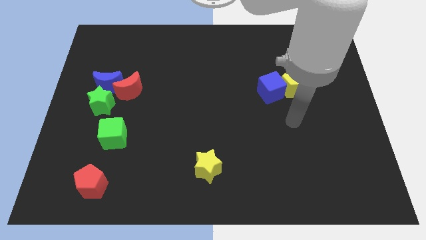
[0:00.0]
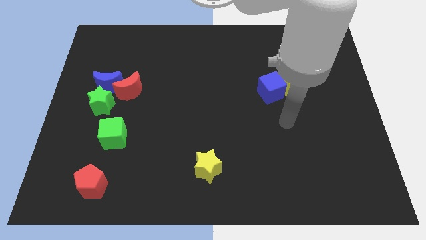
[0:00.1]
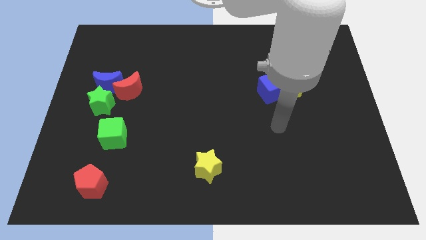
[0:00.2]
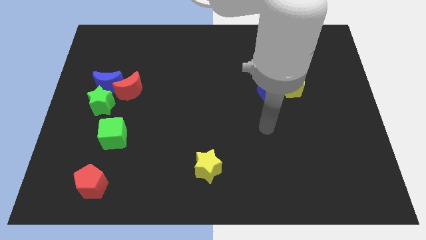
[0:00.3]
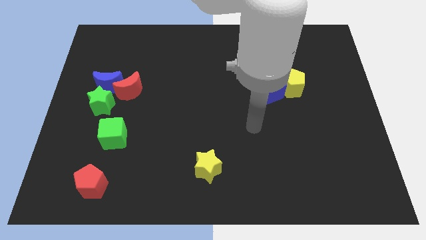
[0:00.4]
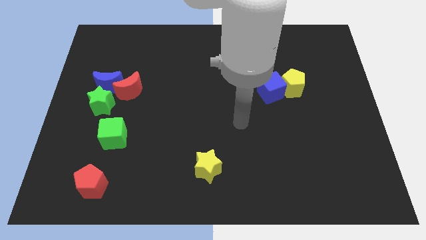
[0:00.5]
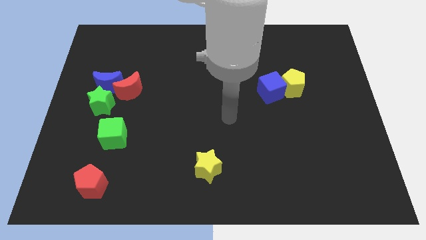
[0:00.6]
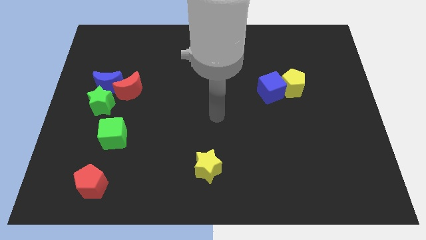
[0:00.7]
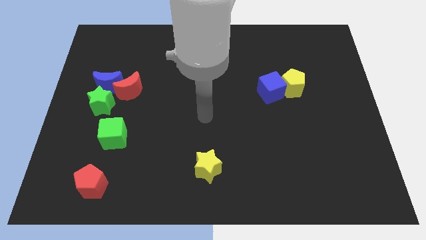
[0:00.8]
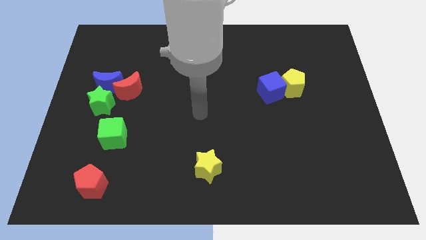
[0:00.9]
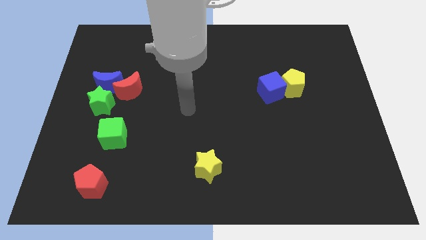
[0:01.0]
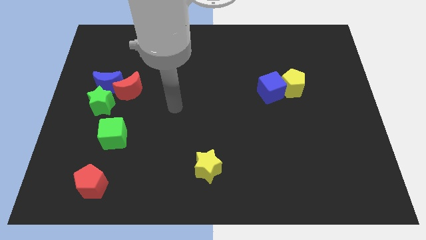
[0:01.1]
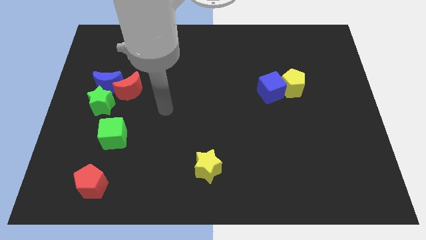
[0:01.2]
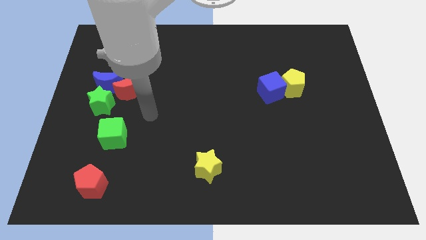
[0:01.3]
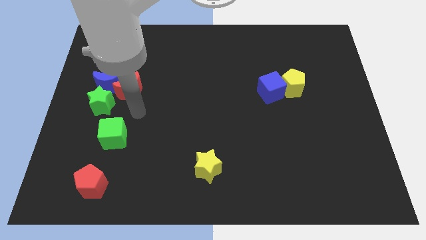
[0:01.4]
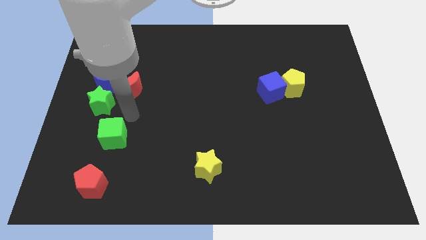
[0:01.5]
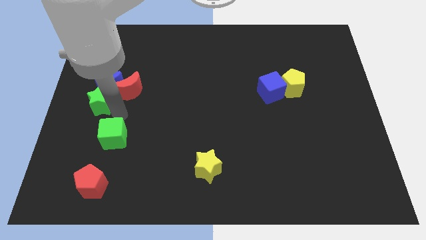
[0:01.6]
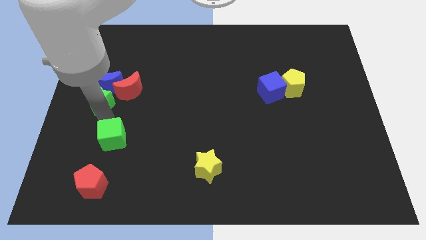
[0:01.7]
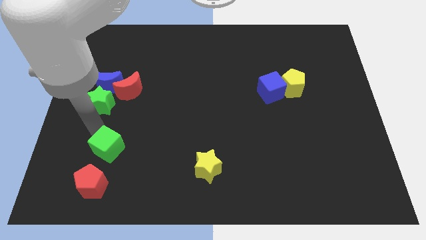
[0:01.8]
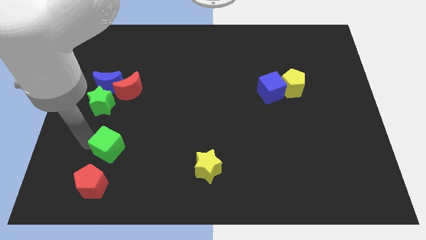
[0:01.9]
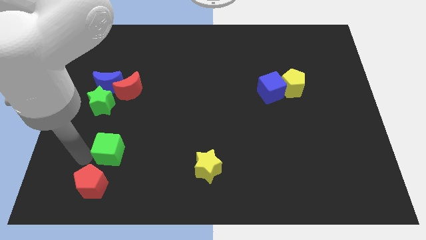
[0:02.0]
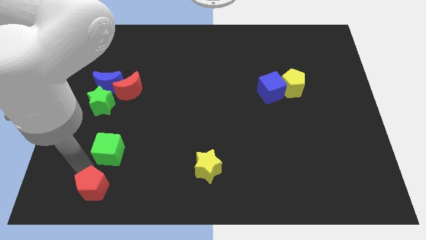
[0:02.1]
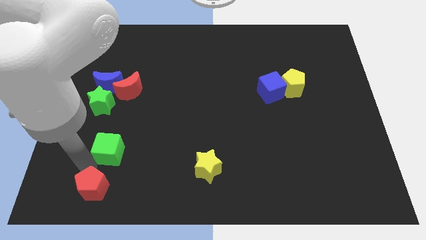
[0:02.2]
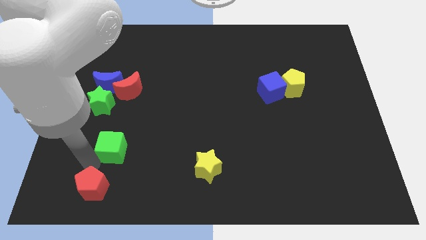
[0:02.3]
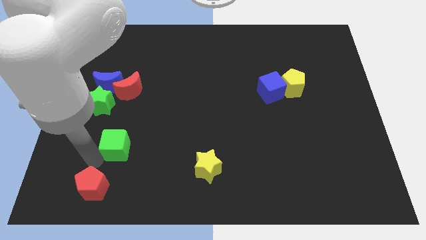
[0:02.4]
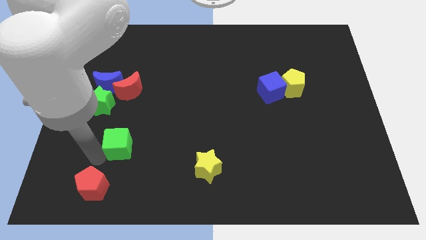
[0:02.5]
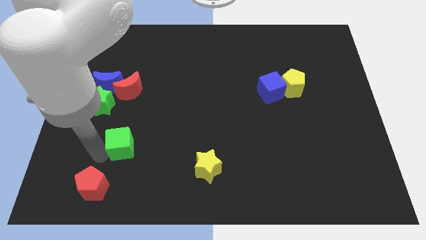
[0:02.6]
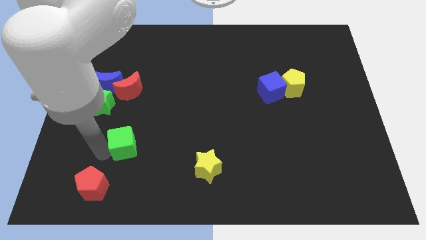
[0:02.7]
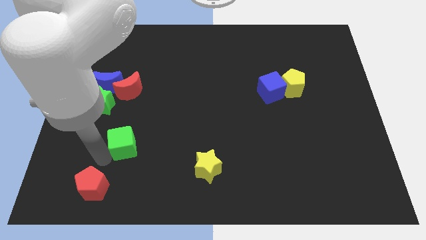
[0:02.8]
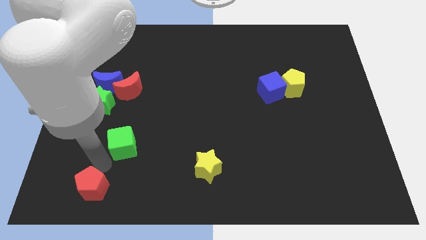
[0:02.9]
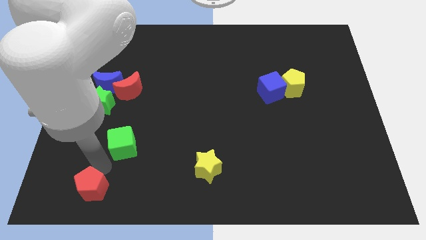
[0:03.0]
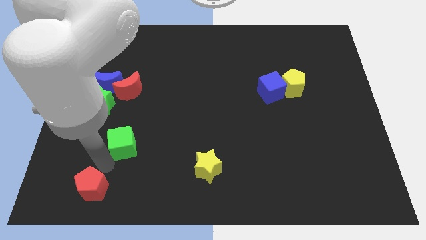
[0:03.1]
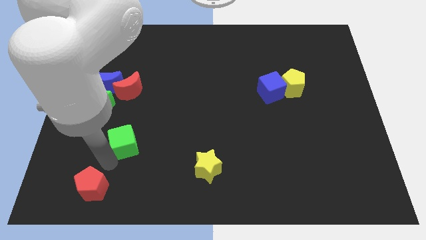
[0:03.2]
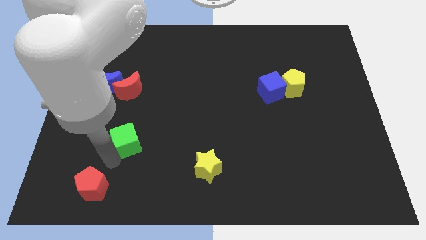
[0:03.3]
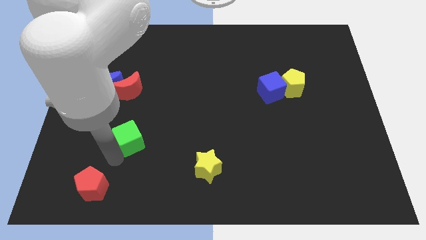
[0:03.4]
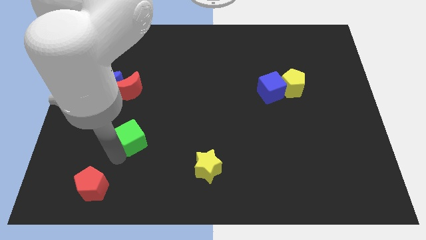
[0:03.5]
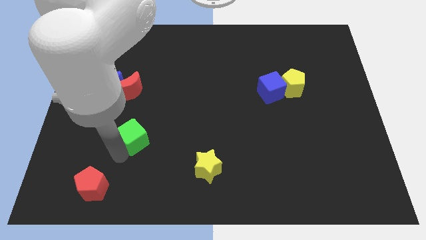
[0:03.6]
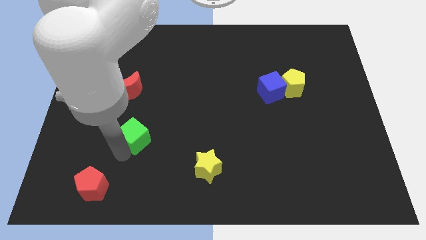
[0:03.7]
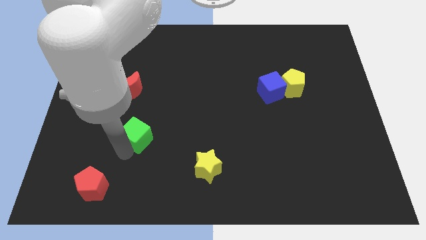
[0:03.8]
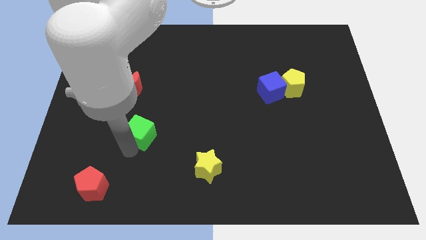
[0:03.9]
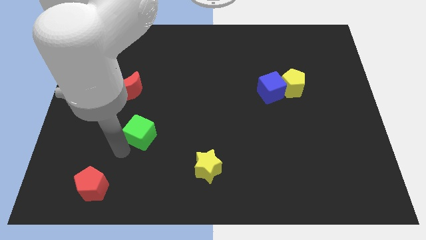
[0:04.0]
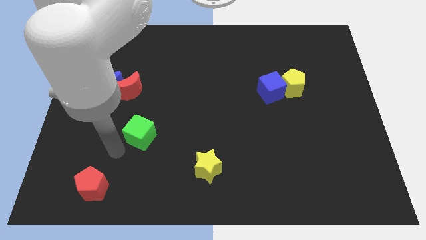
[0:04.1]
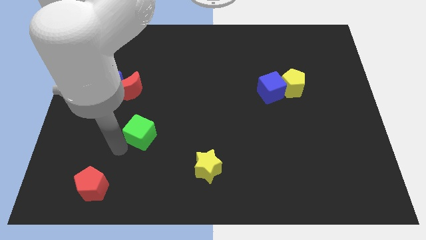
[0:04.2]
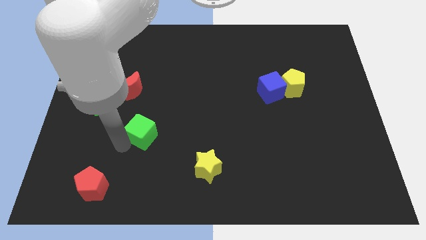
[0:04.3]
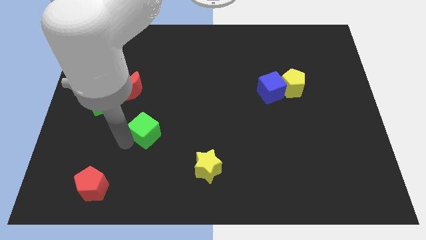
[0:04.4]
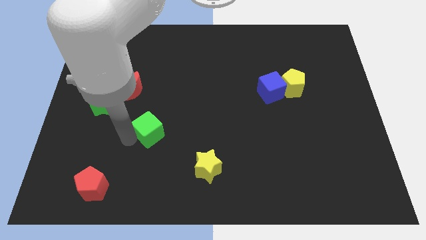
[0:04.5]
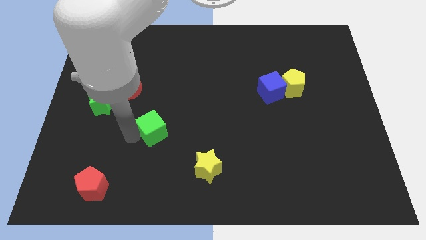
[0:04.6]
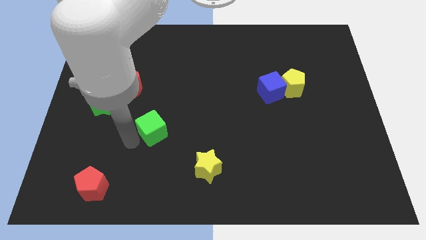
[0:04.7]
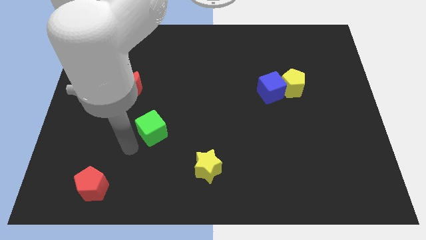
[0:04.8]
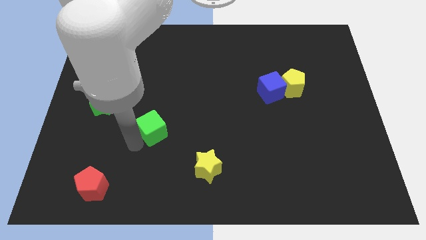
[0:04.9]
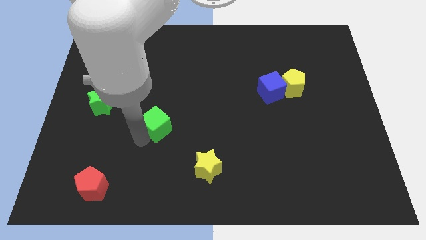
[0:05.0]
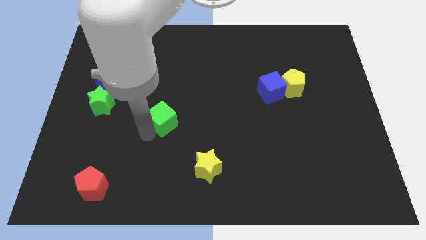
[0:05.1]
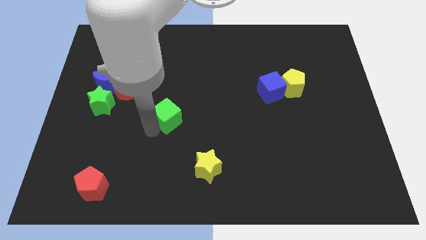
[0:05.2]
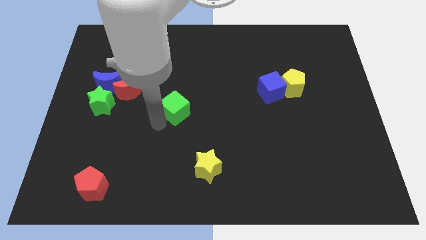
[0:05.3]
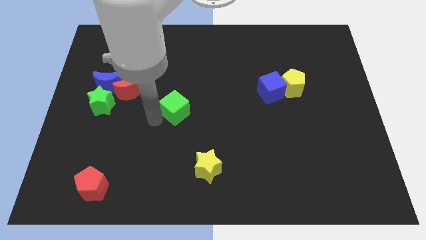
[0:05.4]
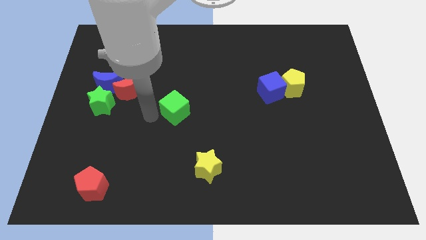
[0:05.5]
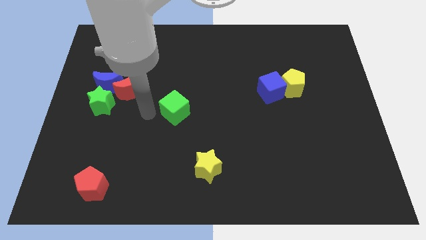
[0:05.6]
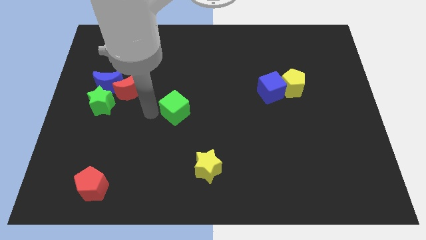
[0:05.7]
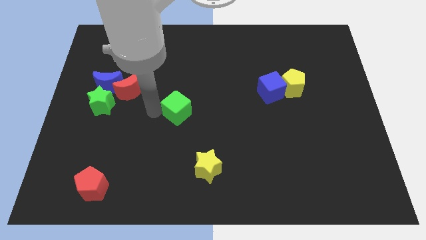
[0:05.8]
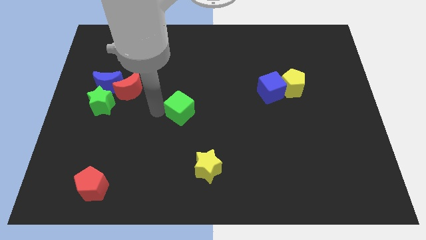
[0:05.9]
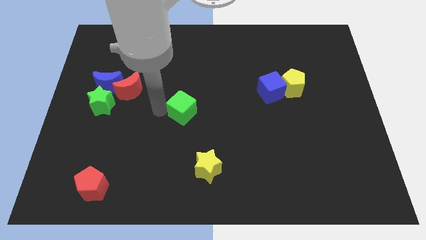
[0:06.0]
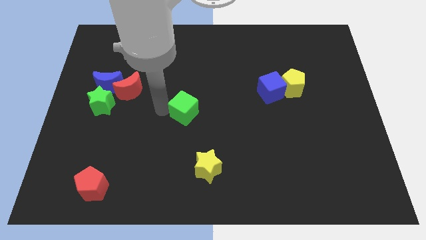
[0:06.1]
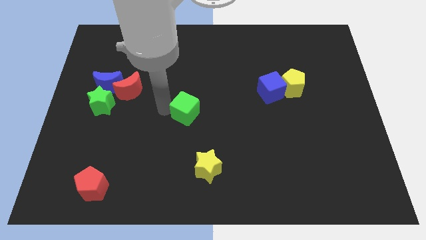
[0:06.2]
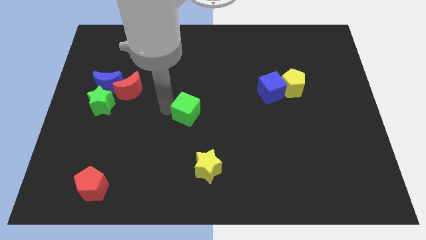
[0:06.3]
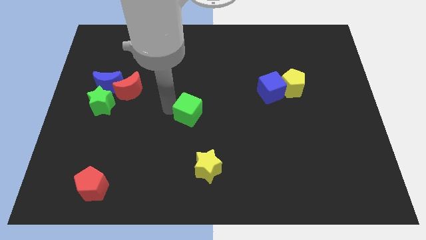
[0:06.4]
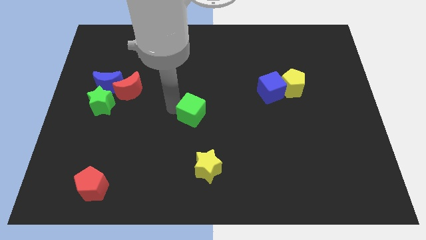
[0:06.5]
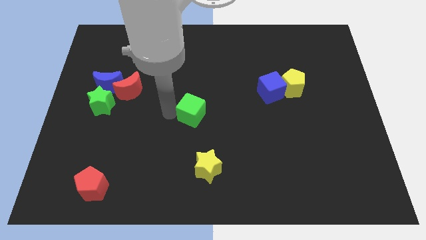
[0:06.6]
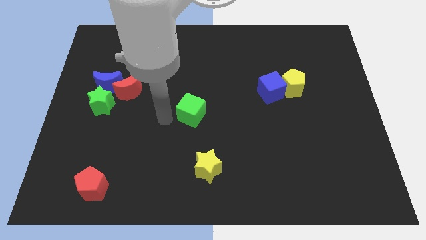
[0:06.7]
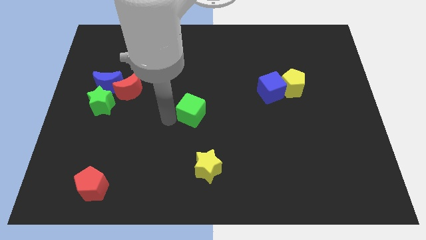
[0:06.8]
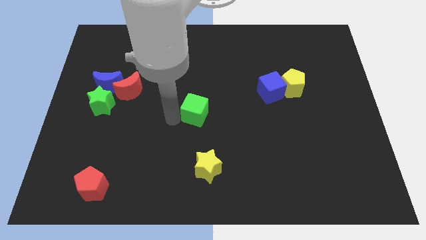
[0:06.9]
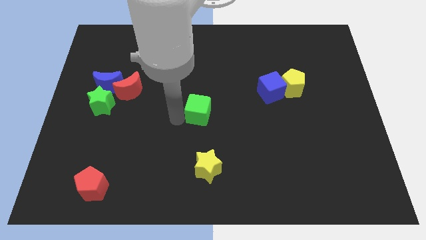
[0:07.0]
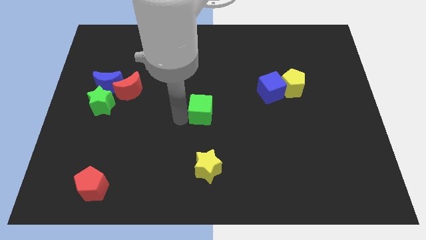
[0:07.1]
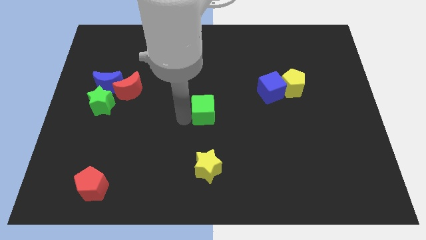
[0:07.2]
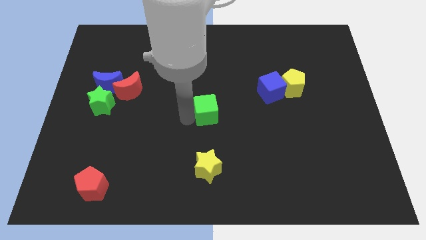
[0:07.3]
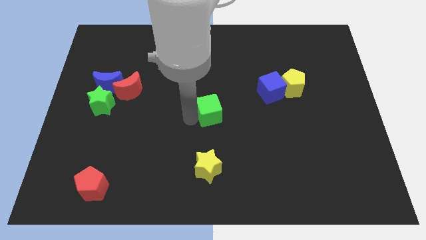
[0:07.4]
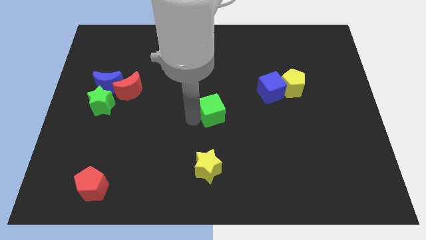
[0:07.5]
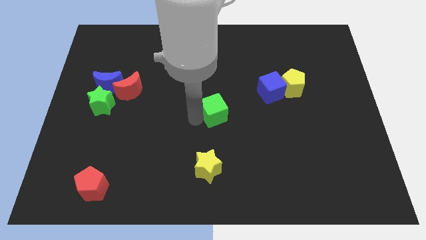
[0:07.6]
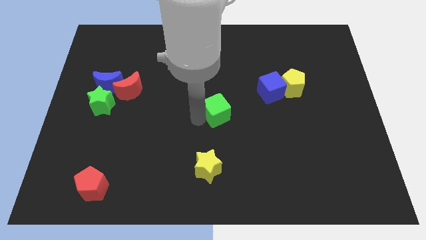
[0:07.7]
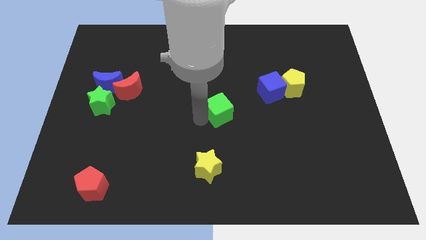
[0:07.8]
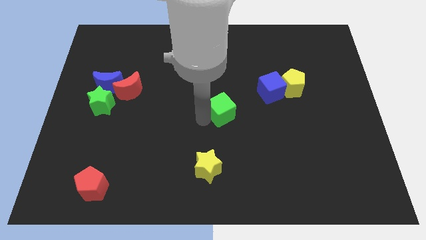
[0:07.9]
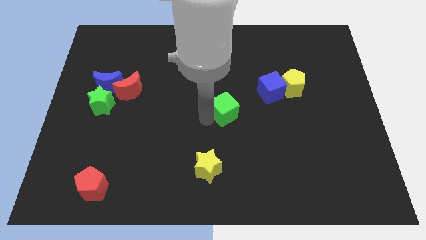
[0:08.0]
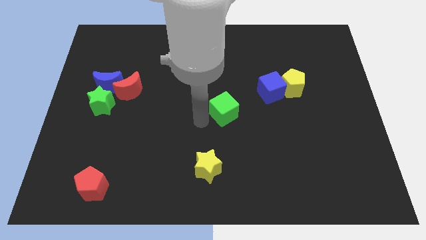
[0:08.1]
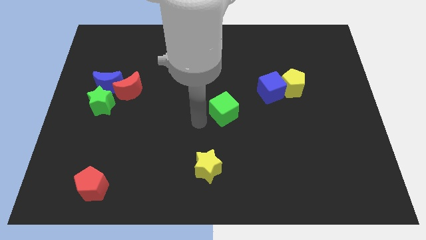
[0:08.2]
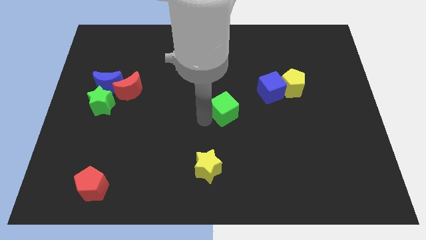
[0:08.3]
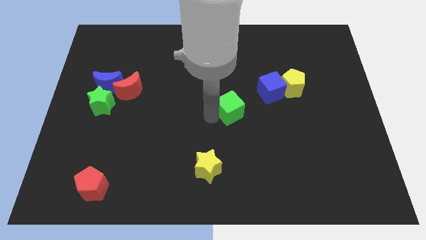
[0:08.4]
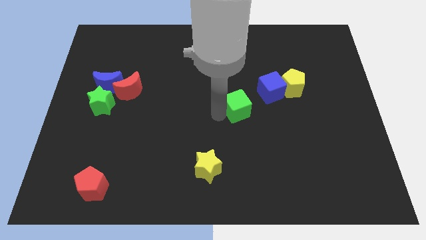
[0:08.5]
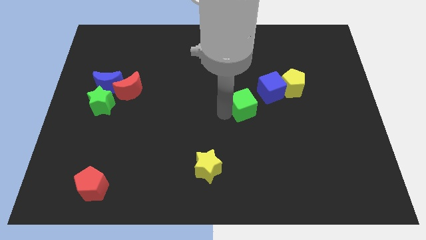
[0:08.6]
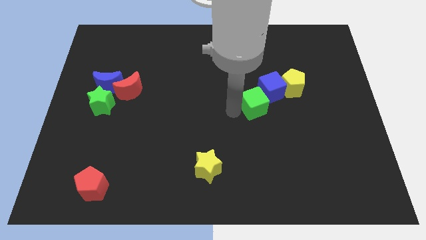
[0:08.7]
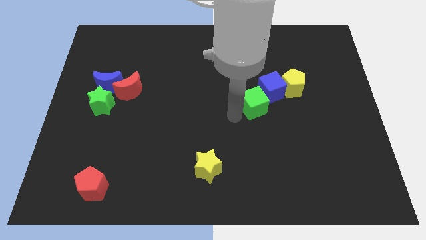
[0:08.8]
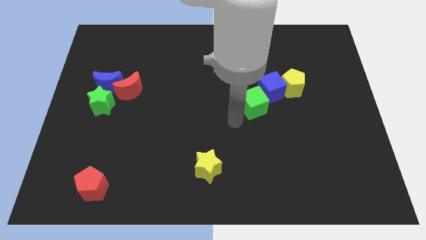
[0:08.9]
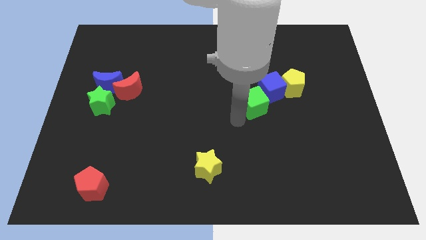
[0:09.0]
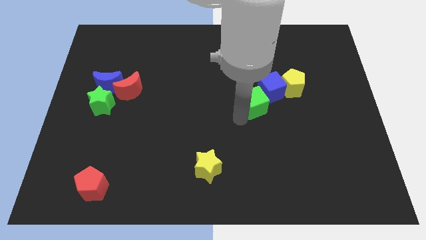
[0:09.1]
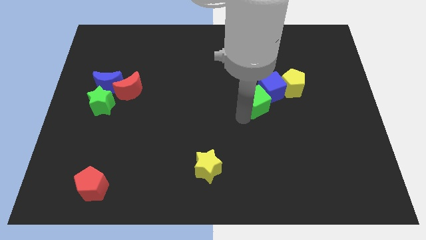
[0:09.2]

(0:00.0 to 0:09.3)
move the green cube towards the blue cube
